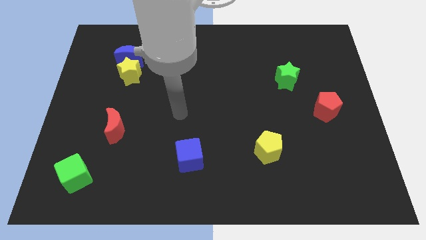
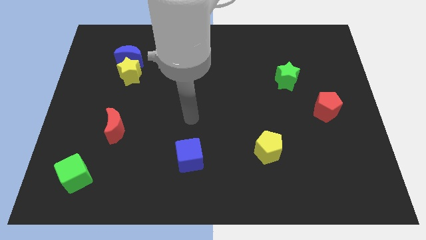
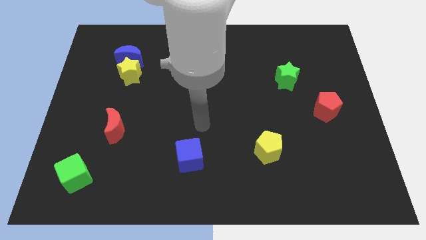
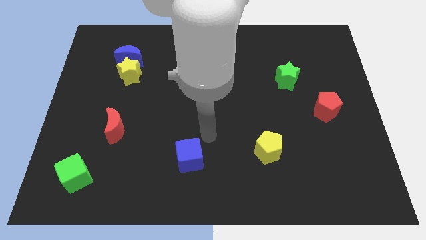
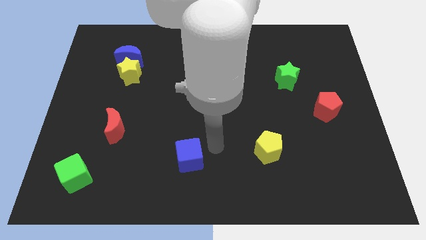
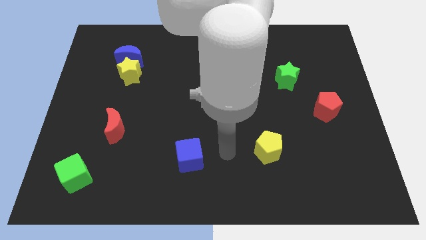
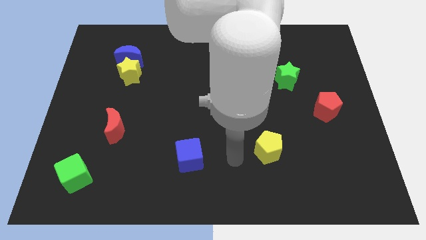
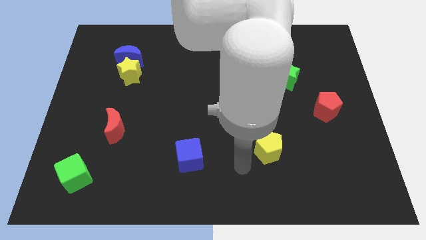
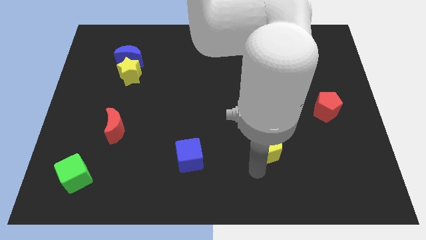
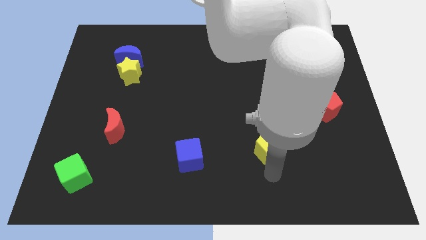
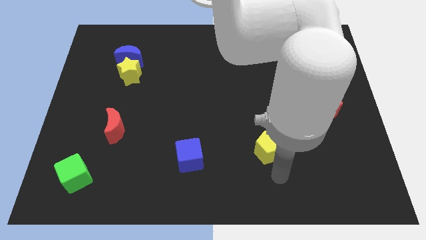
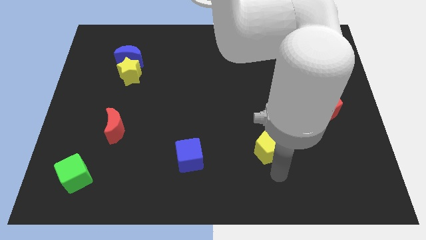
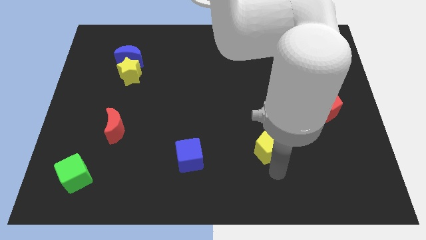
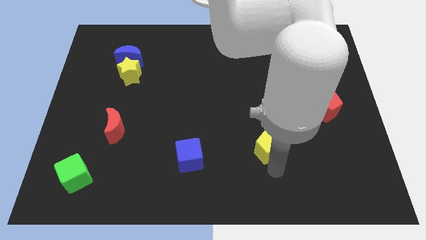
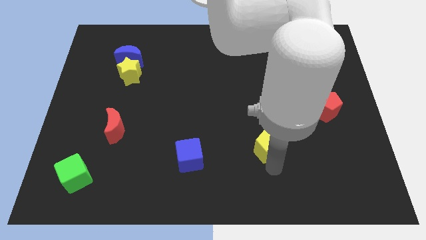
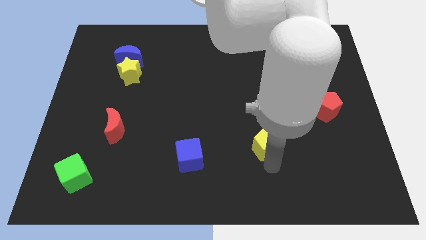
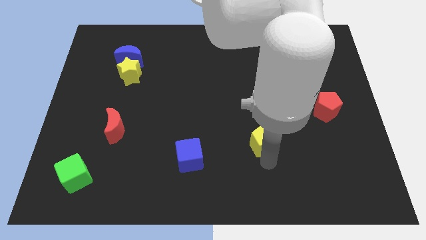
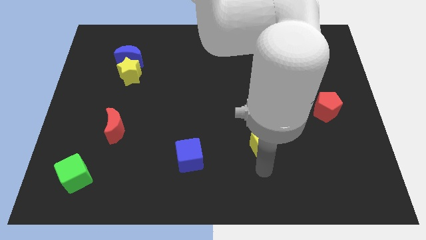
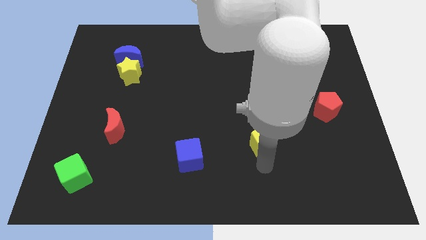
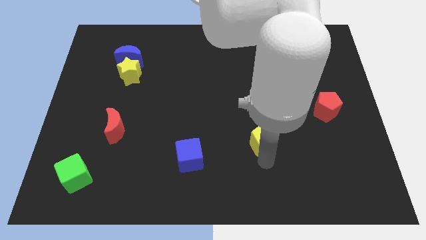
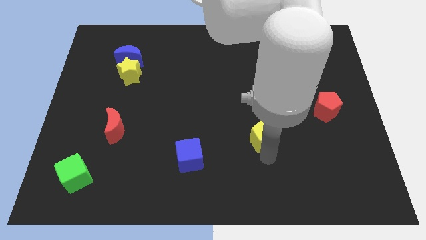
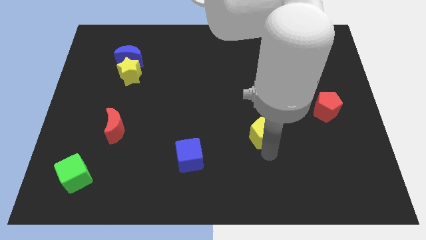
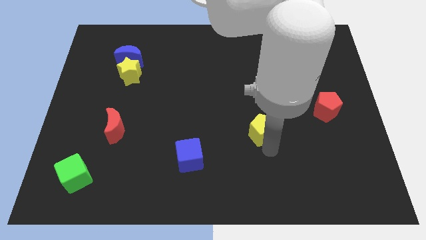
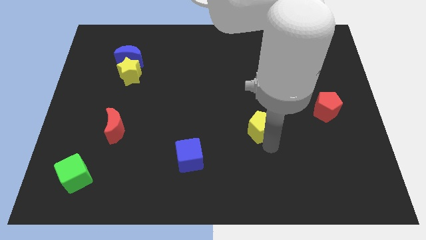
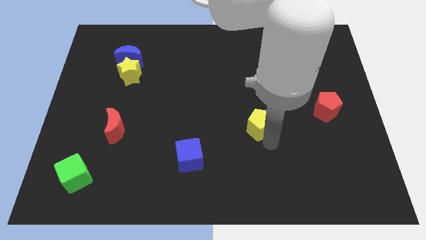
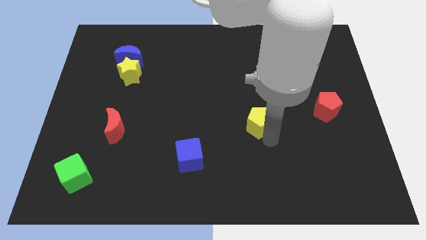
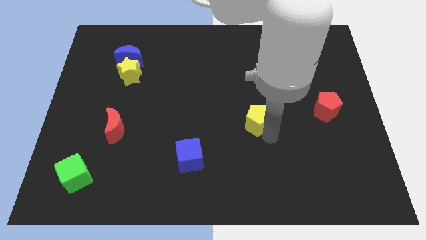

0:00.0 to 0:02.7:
push the yellow pentagon upwards a little bit

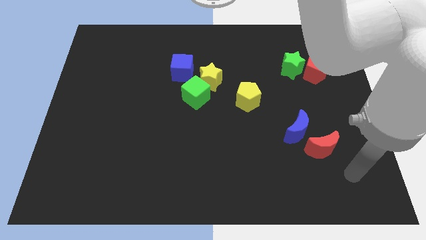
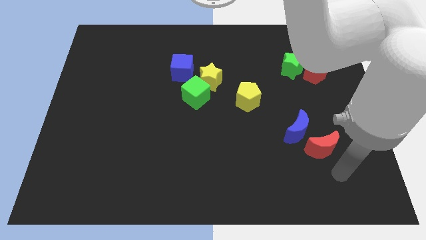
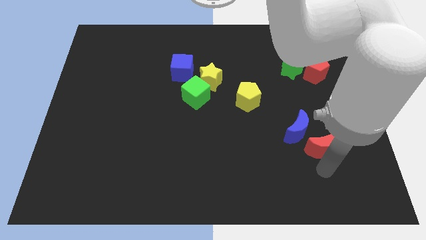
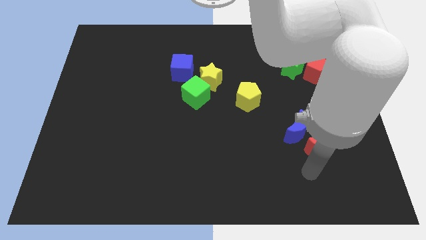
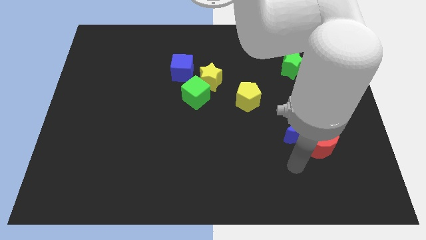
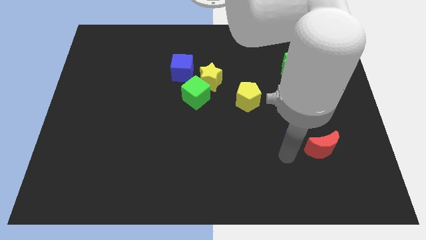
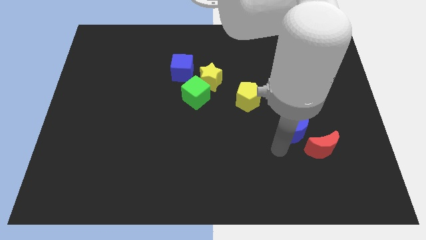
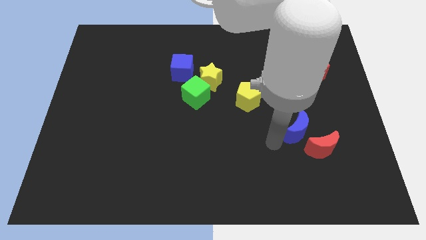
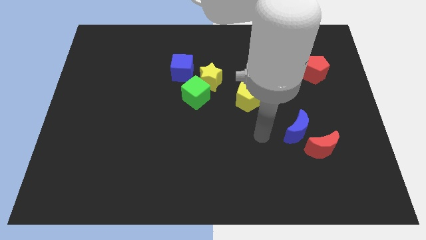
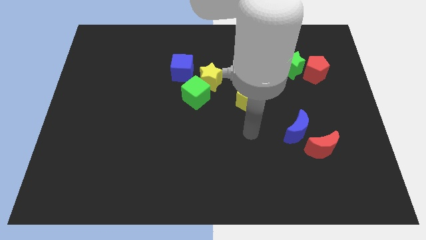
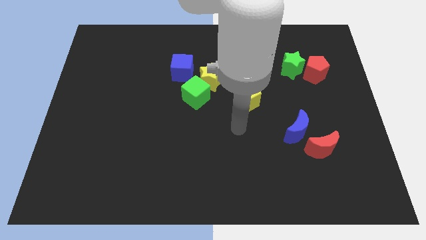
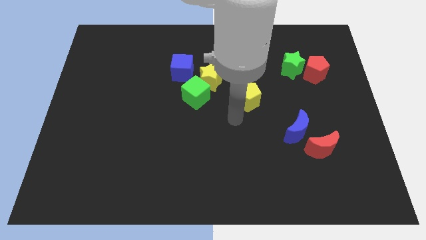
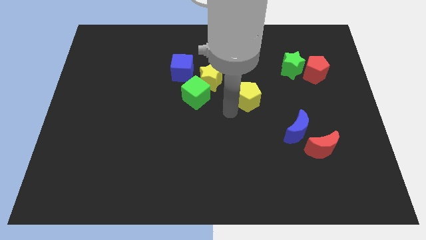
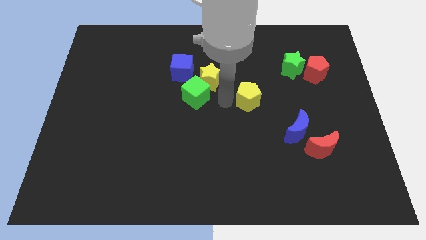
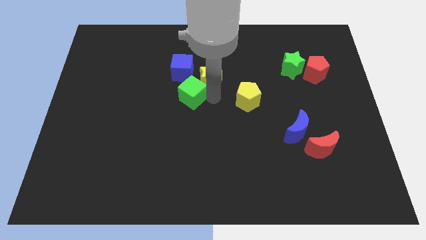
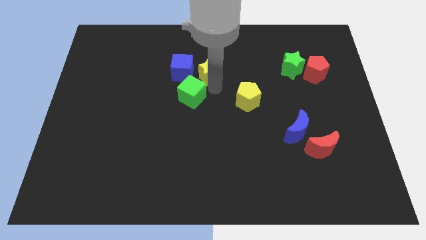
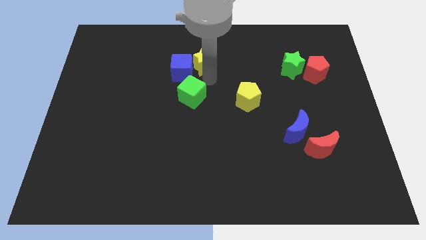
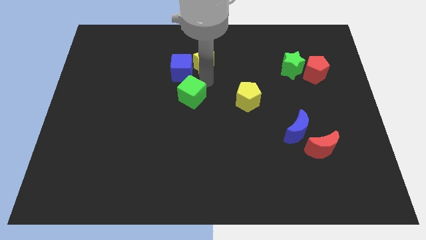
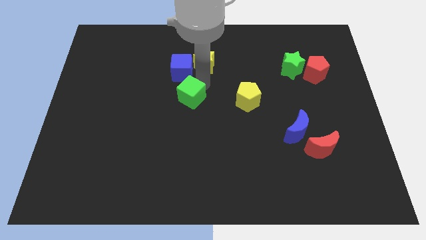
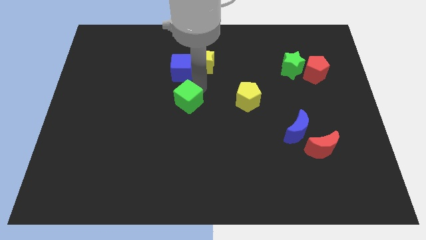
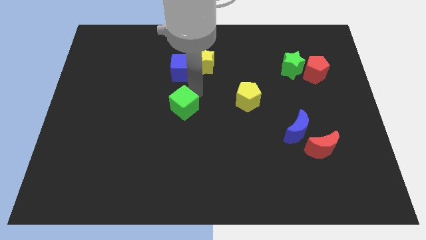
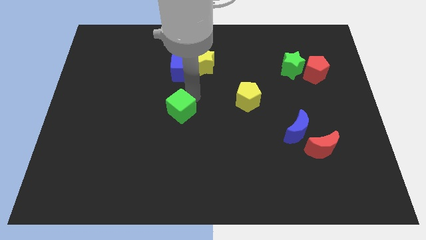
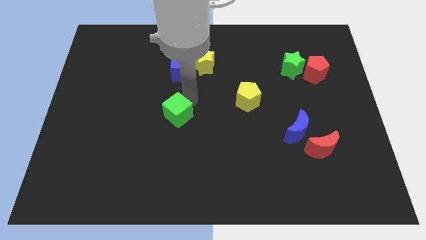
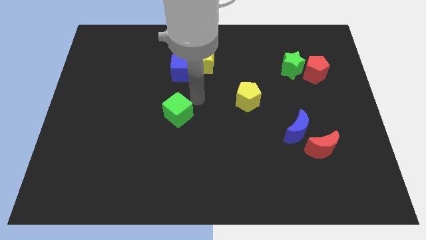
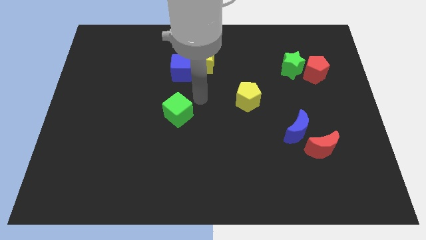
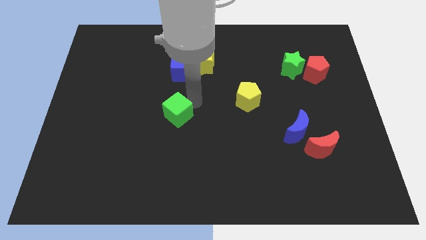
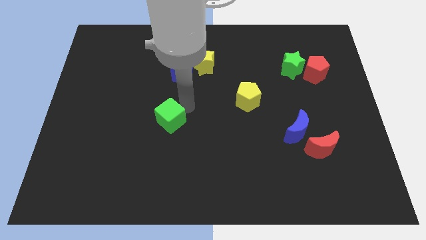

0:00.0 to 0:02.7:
move the green cube downwards and then to the left a bit

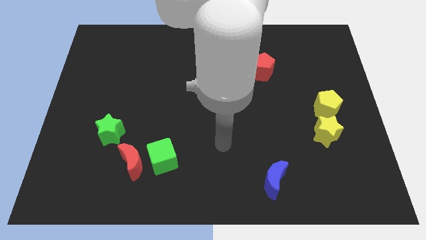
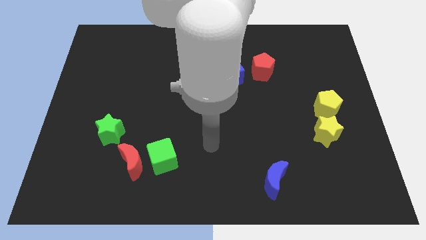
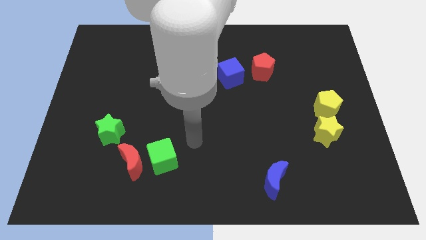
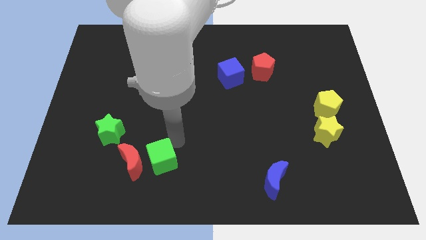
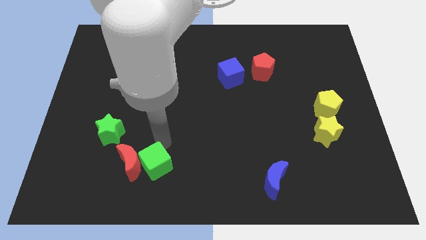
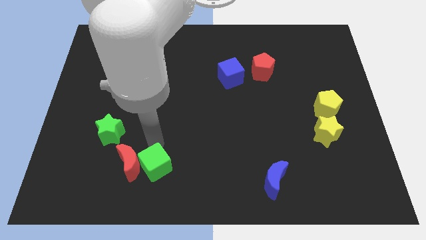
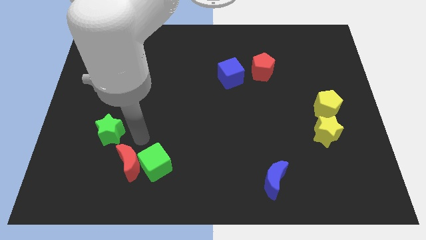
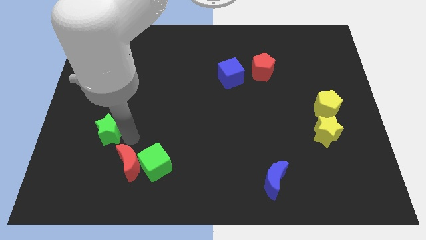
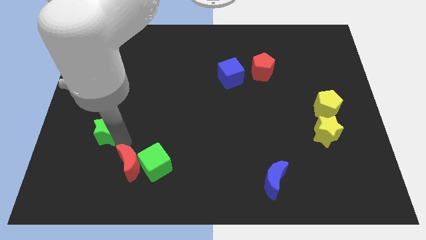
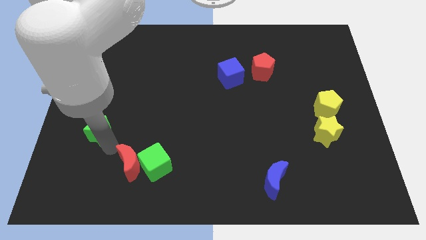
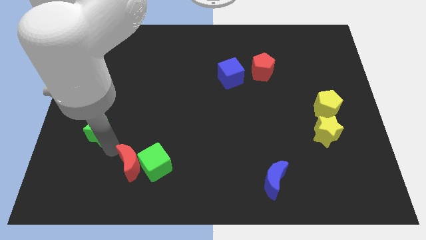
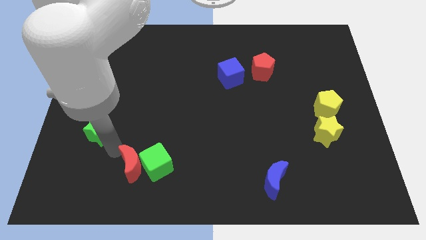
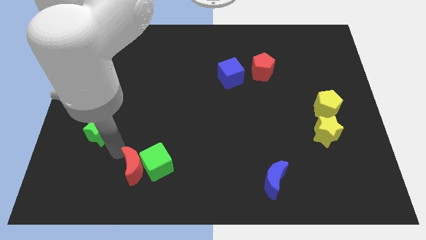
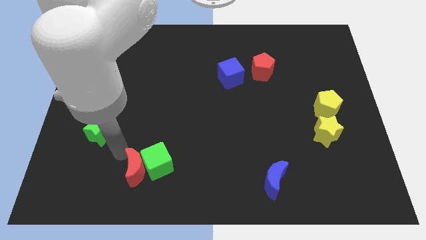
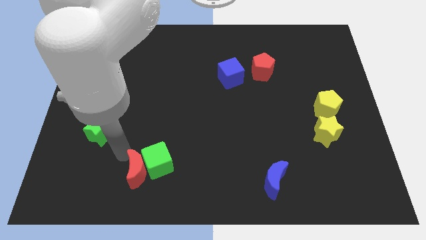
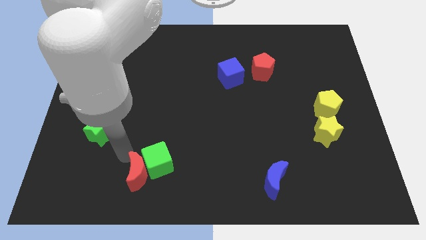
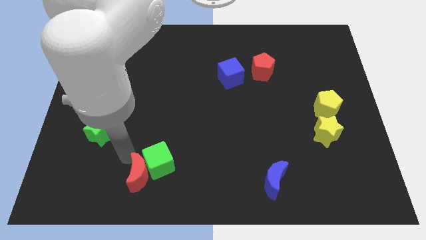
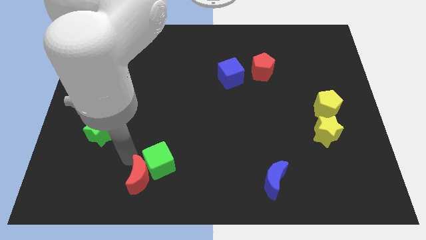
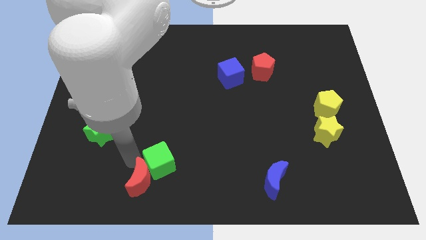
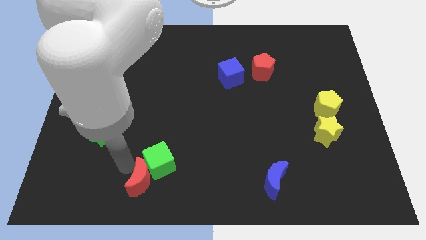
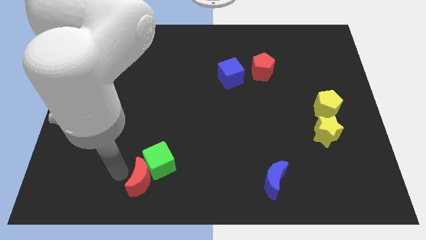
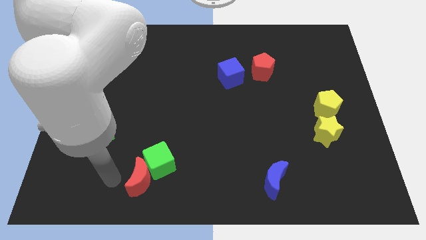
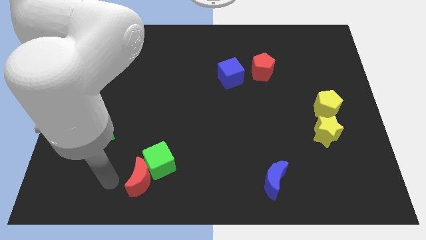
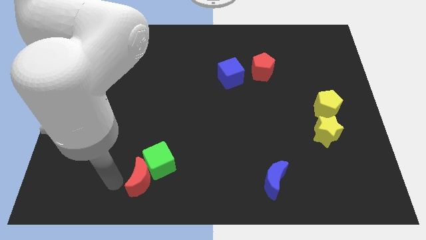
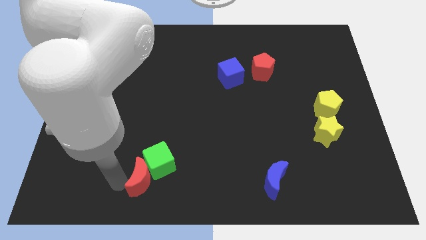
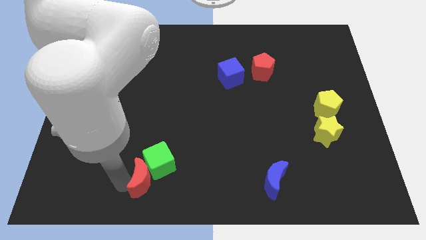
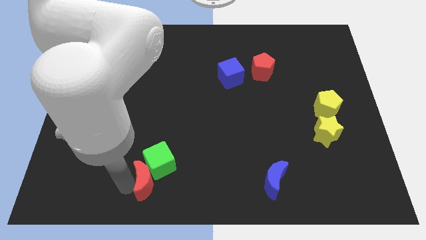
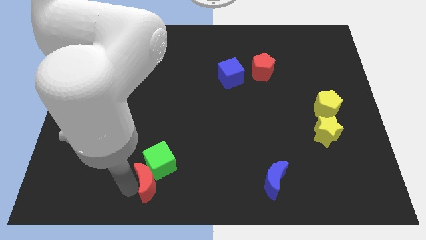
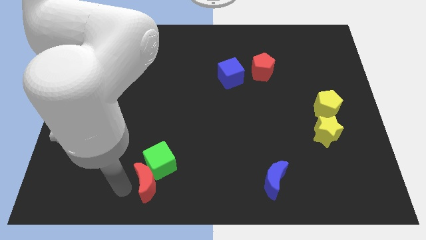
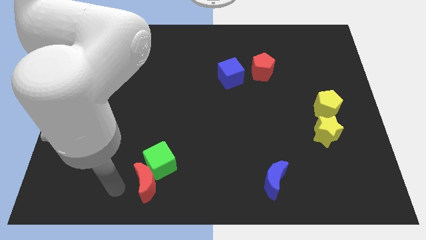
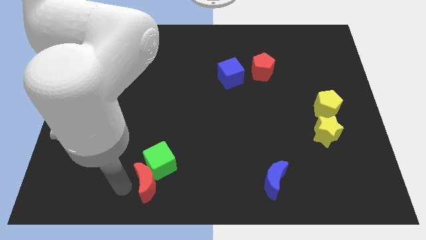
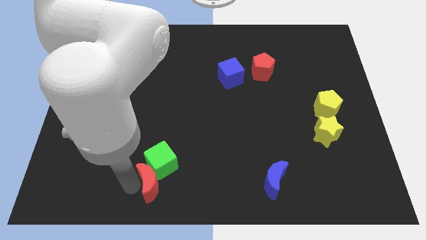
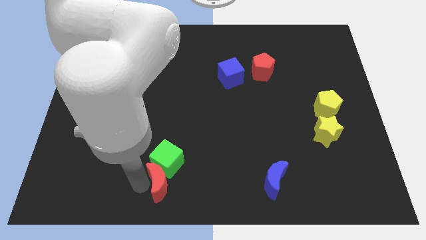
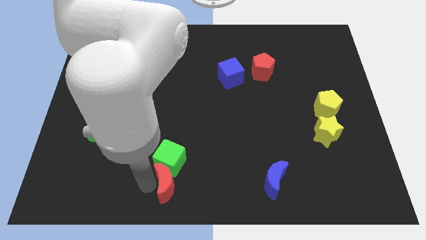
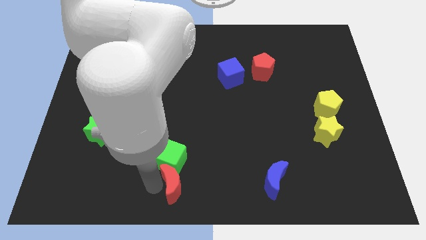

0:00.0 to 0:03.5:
slide the red moon somewhat to the right
